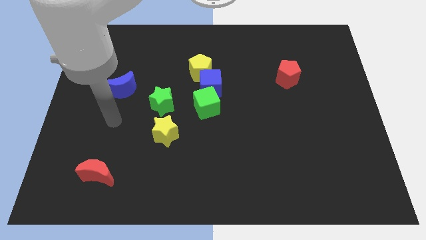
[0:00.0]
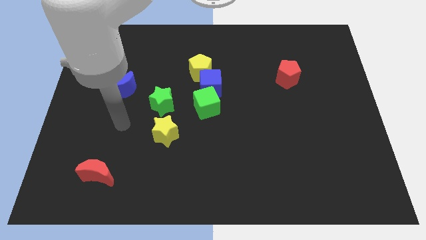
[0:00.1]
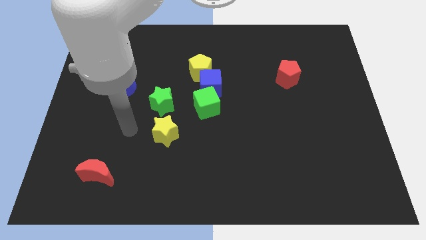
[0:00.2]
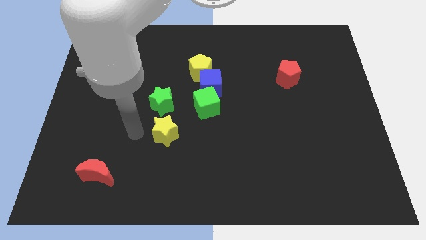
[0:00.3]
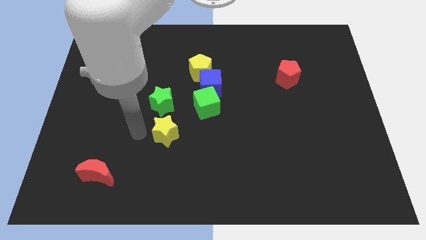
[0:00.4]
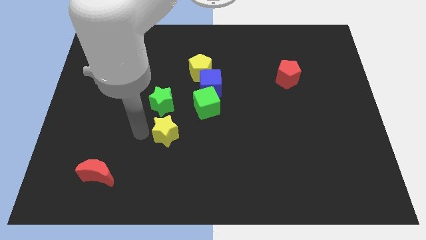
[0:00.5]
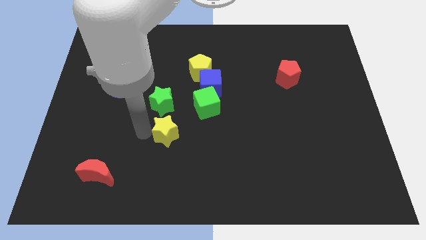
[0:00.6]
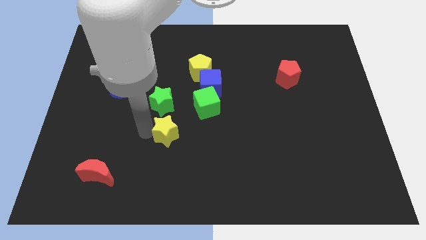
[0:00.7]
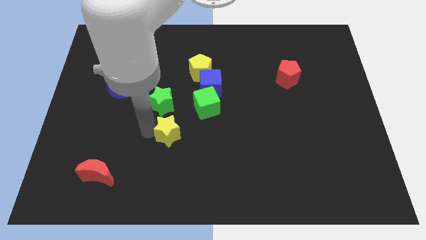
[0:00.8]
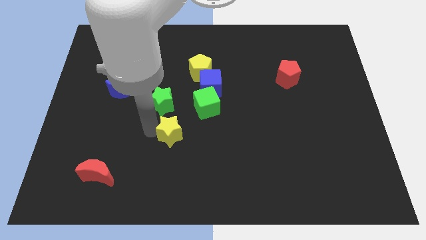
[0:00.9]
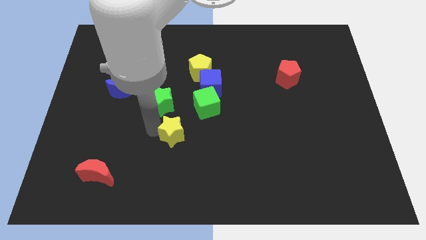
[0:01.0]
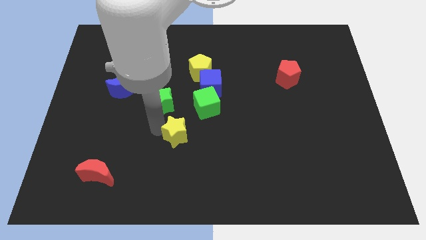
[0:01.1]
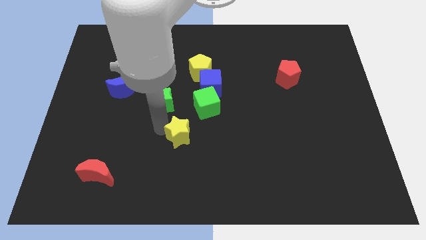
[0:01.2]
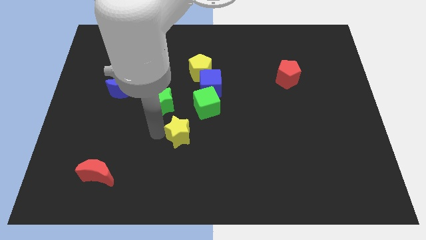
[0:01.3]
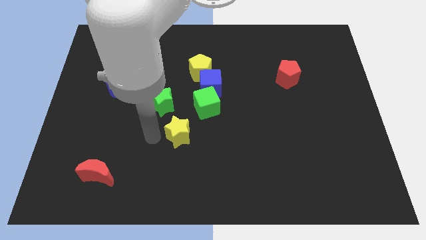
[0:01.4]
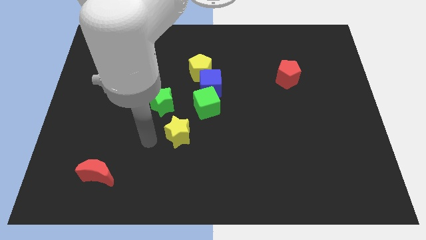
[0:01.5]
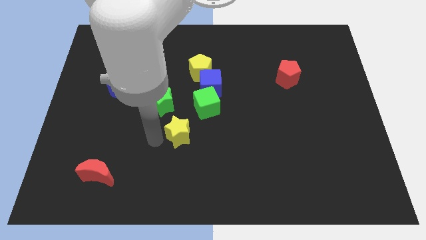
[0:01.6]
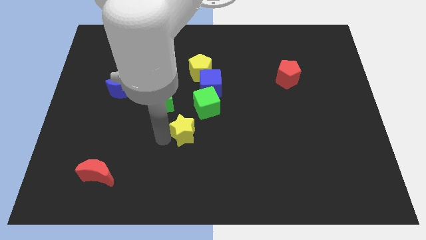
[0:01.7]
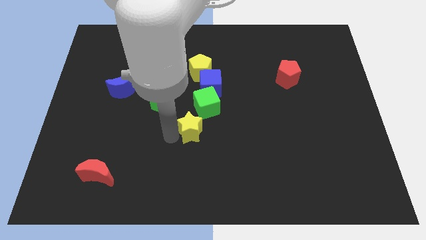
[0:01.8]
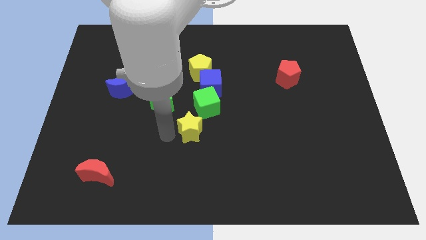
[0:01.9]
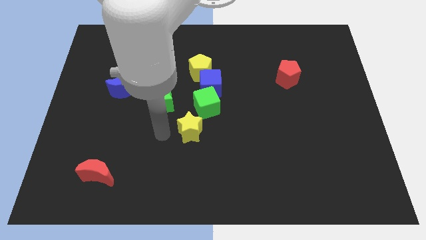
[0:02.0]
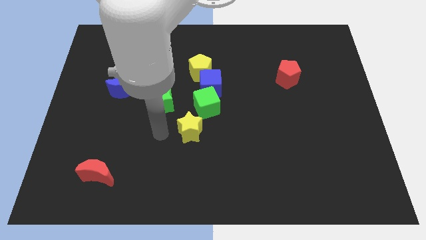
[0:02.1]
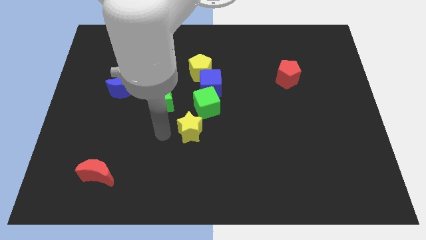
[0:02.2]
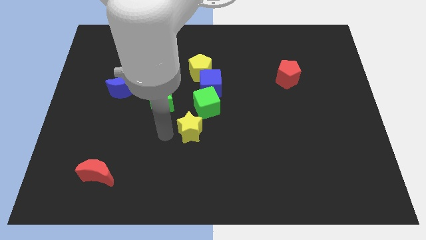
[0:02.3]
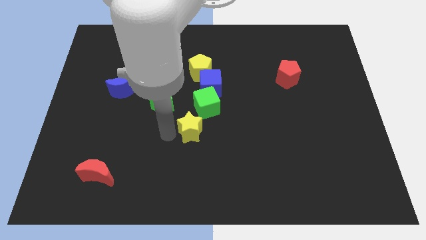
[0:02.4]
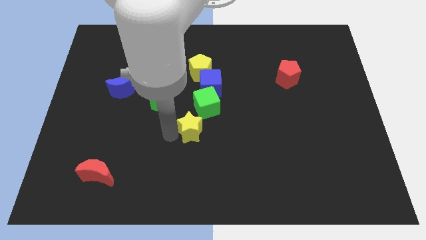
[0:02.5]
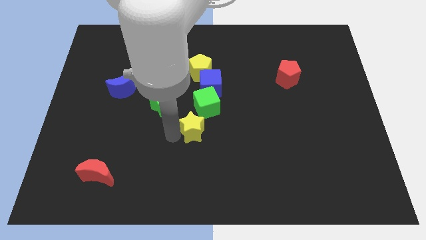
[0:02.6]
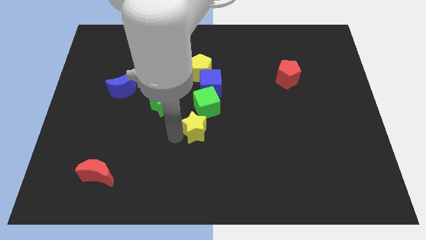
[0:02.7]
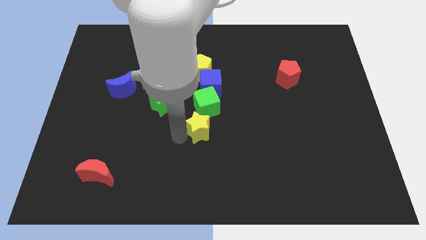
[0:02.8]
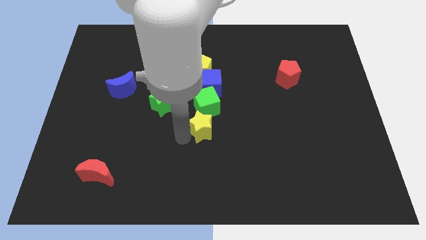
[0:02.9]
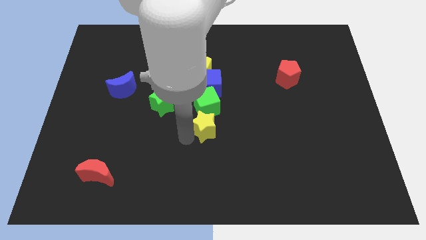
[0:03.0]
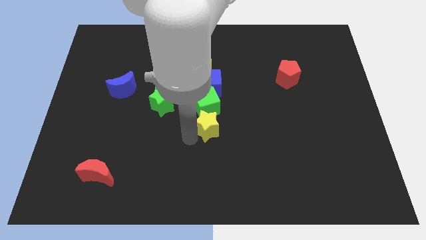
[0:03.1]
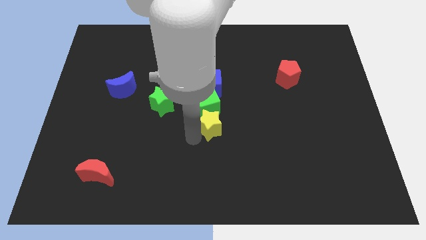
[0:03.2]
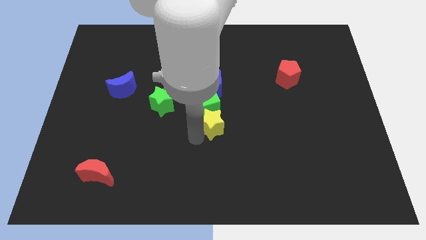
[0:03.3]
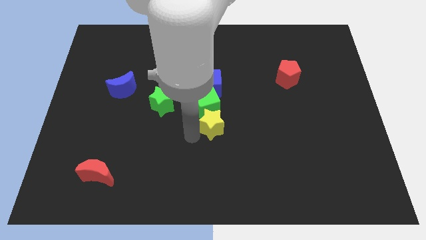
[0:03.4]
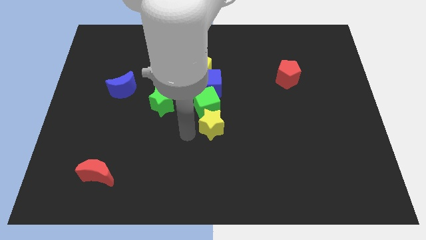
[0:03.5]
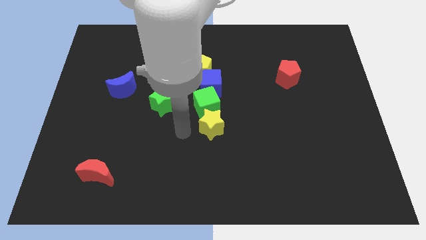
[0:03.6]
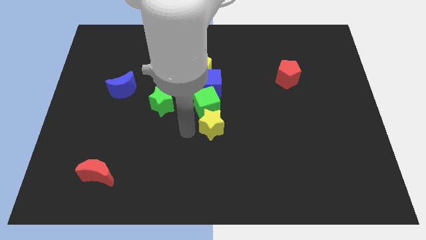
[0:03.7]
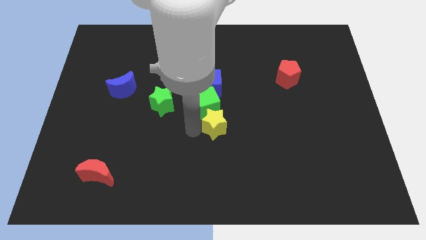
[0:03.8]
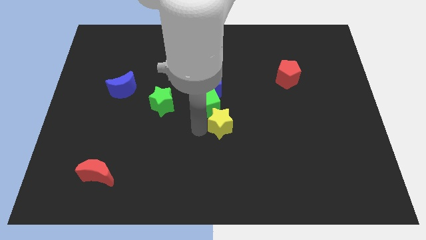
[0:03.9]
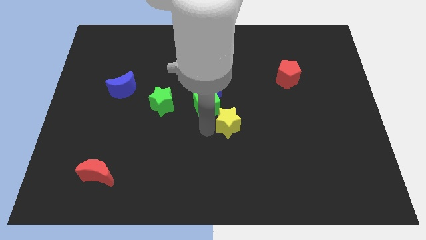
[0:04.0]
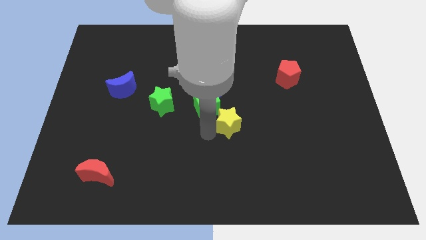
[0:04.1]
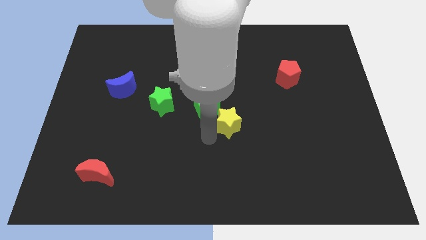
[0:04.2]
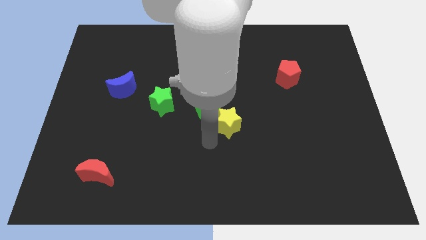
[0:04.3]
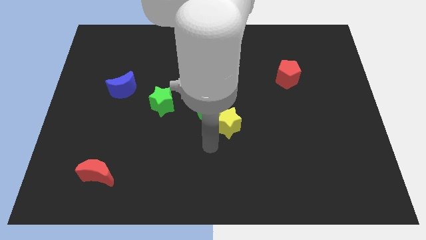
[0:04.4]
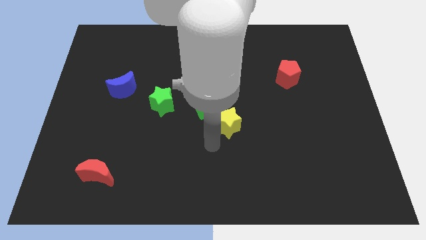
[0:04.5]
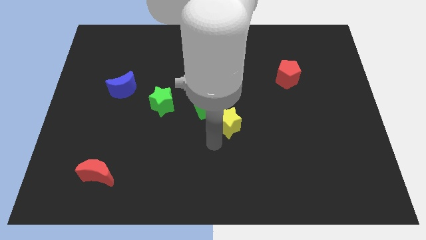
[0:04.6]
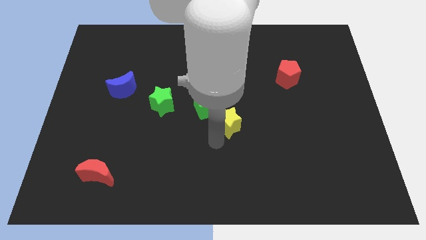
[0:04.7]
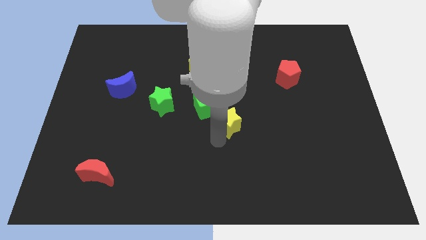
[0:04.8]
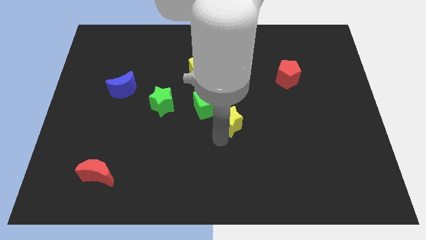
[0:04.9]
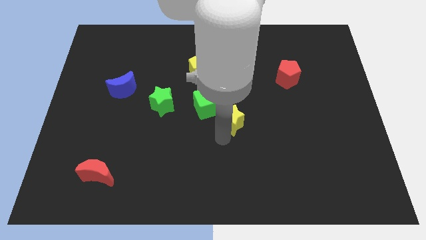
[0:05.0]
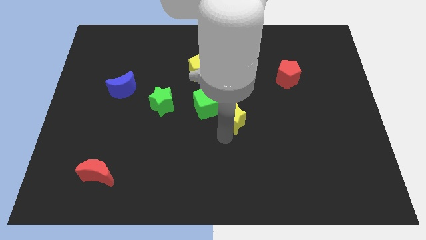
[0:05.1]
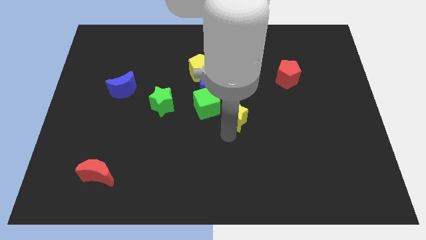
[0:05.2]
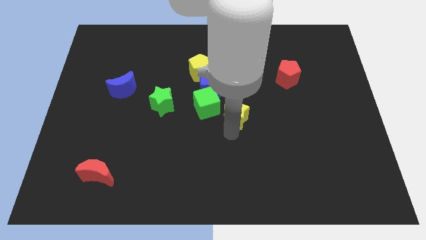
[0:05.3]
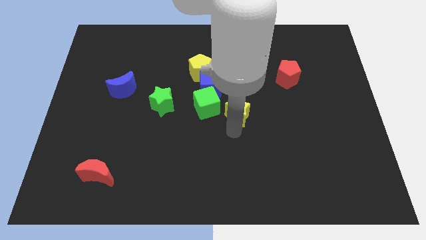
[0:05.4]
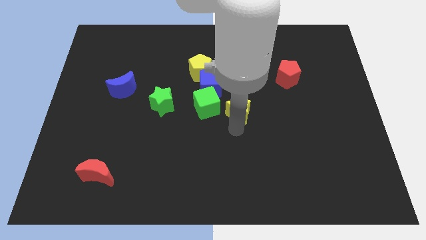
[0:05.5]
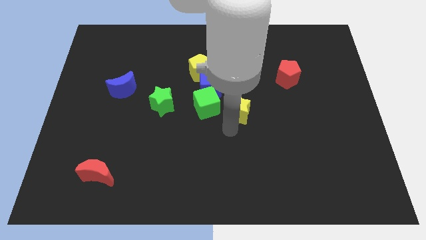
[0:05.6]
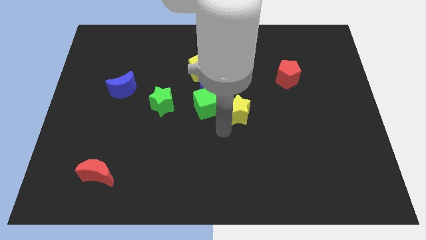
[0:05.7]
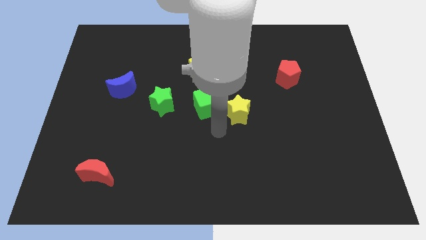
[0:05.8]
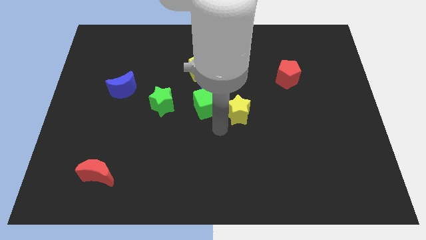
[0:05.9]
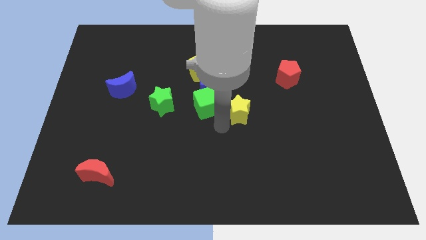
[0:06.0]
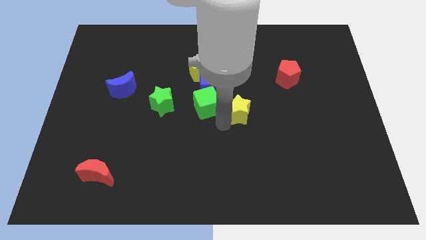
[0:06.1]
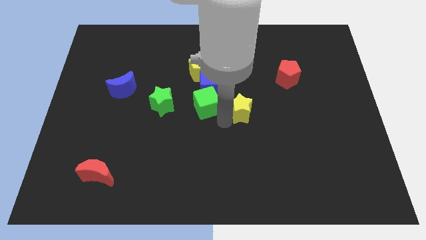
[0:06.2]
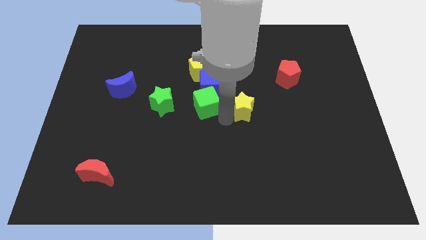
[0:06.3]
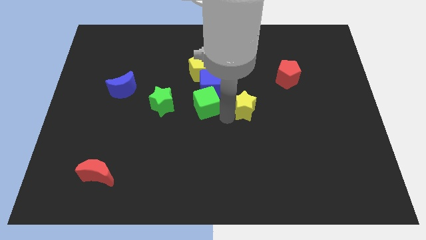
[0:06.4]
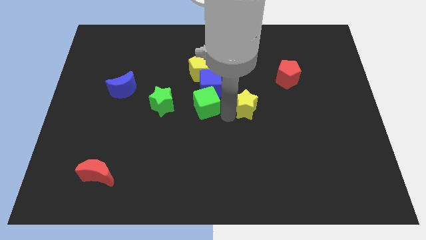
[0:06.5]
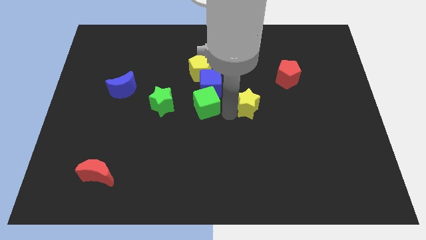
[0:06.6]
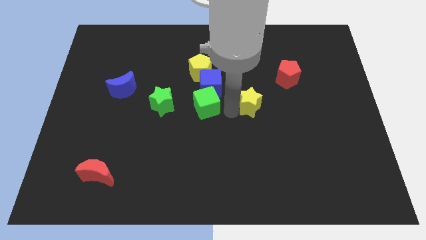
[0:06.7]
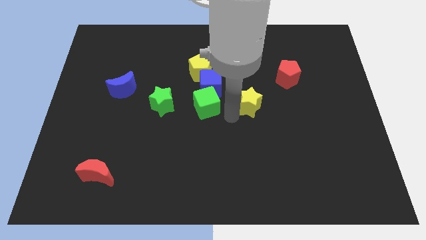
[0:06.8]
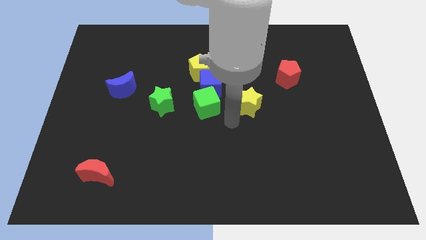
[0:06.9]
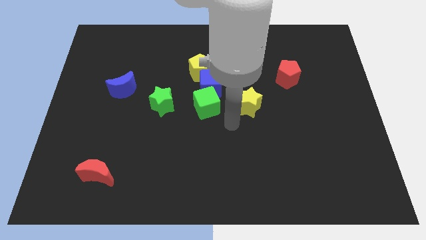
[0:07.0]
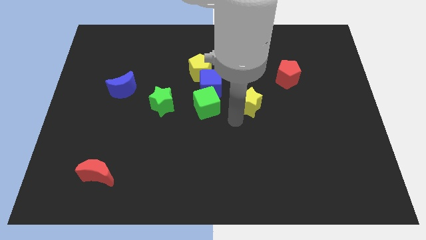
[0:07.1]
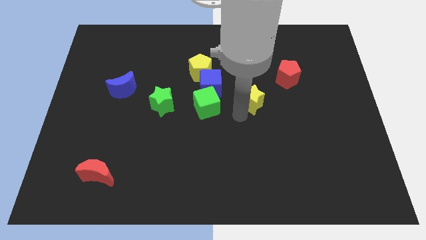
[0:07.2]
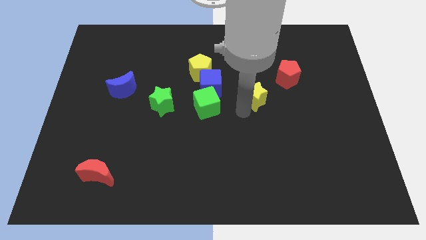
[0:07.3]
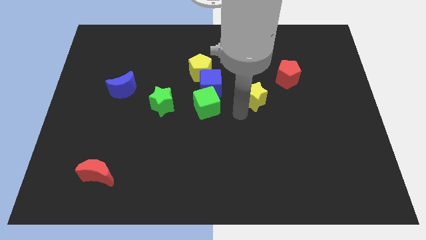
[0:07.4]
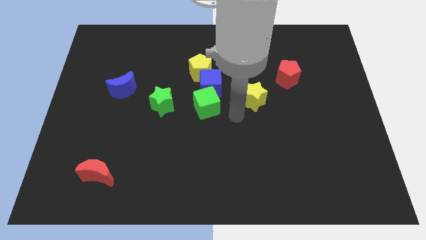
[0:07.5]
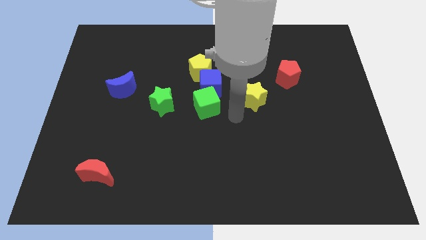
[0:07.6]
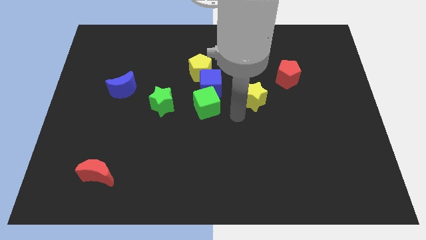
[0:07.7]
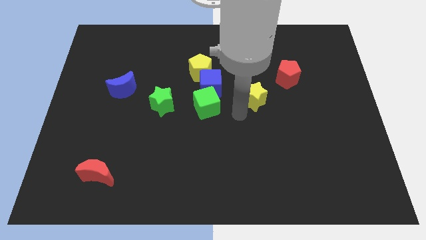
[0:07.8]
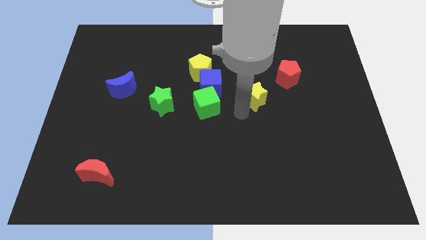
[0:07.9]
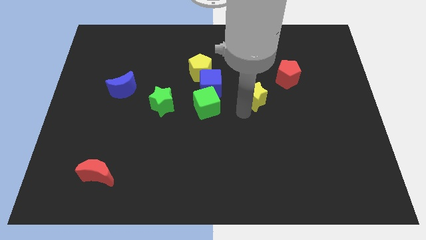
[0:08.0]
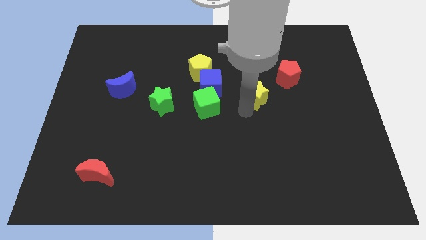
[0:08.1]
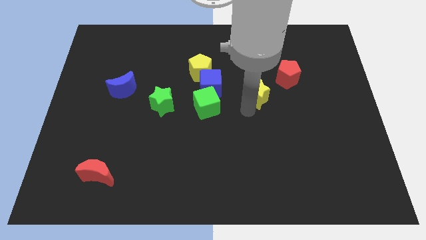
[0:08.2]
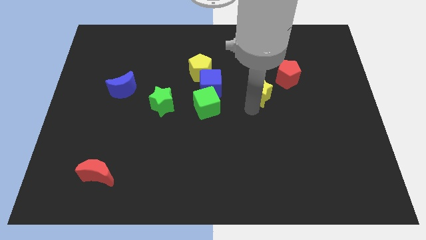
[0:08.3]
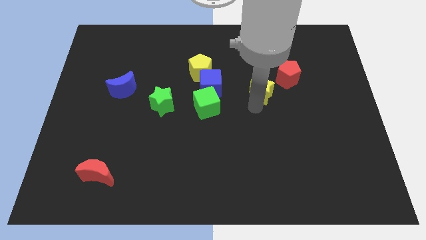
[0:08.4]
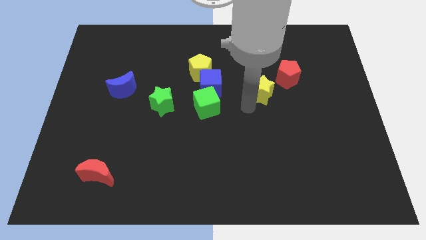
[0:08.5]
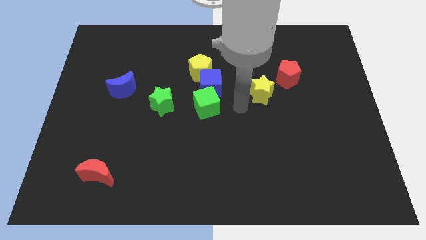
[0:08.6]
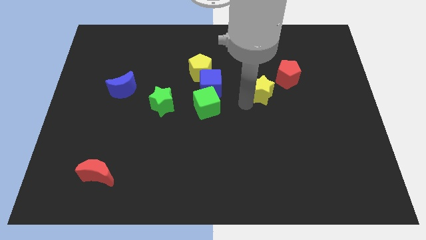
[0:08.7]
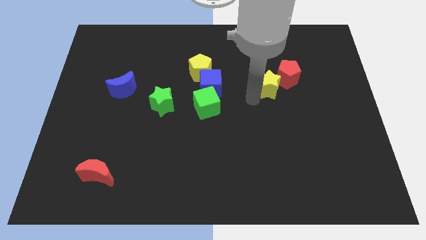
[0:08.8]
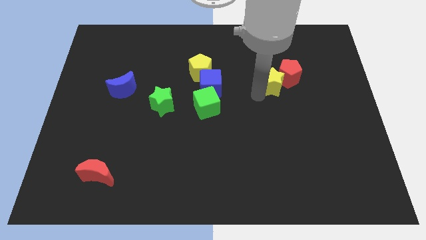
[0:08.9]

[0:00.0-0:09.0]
slide the yellow star close to the red pentagon
